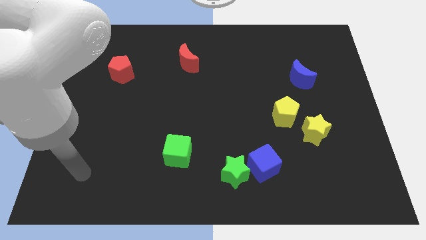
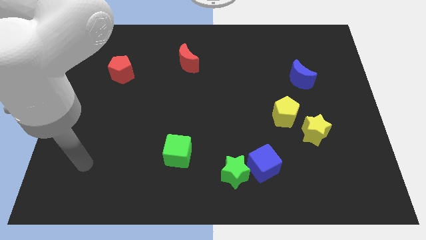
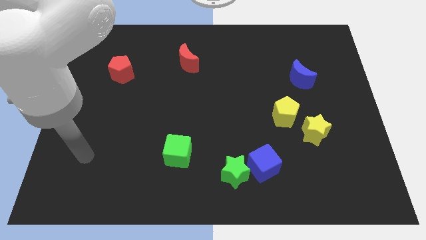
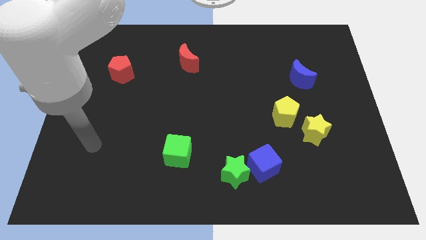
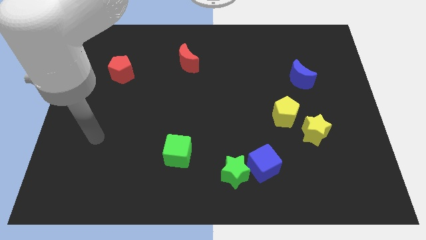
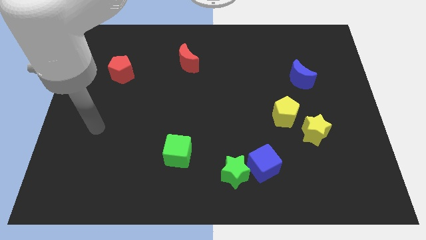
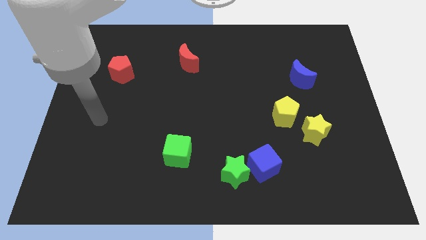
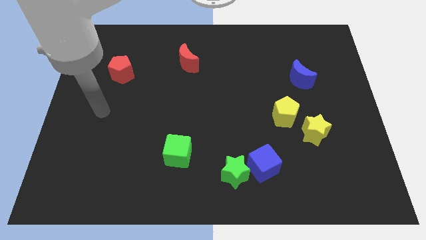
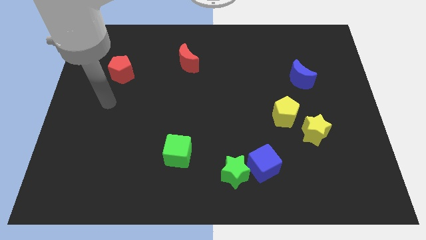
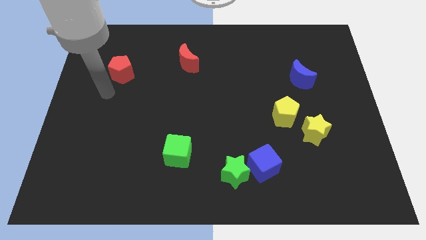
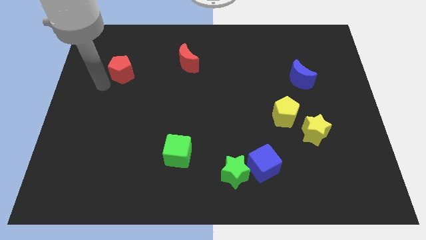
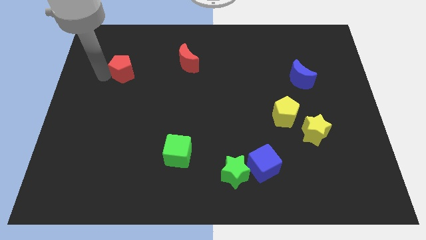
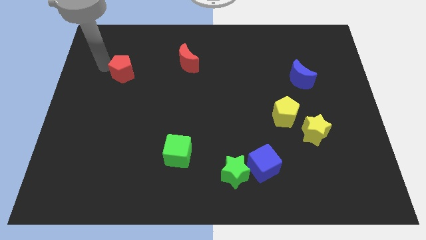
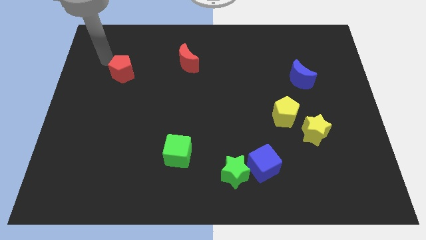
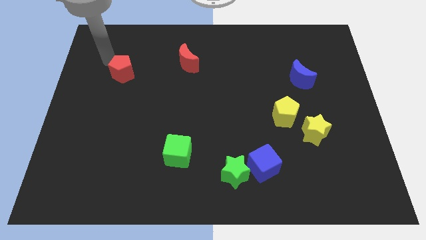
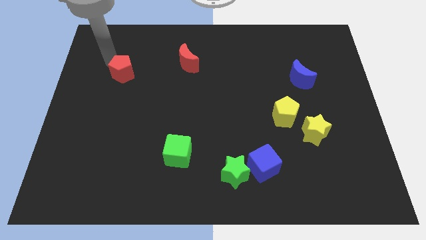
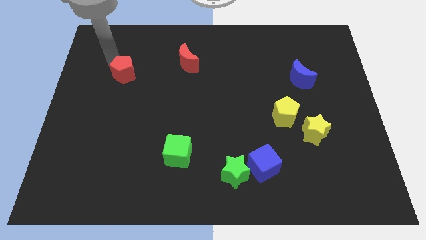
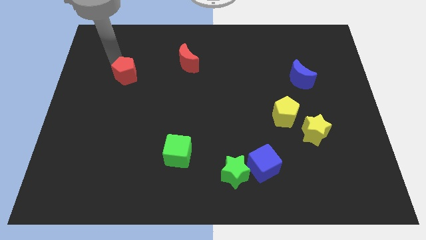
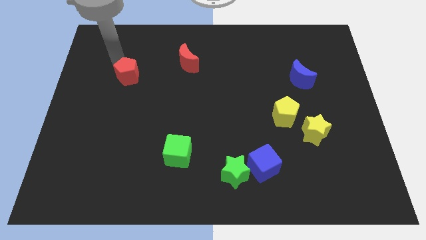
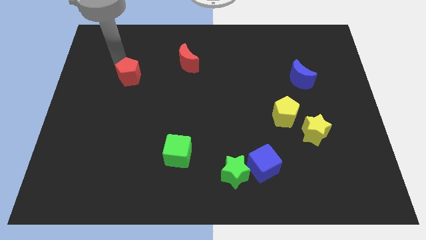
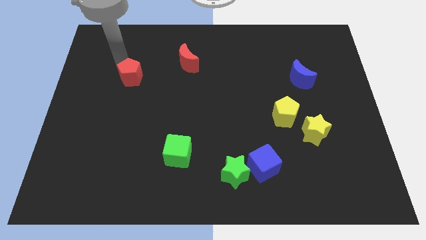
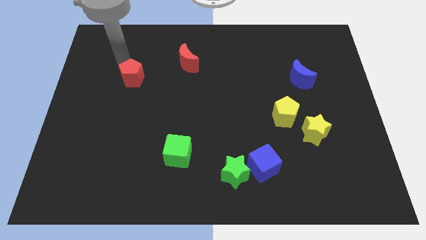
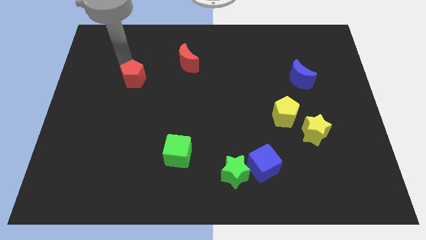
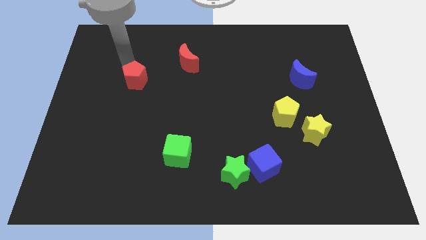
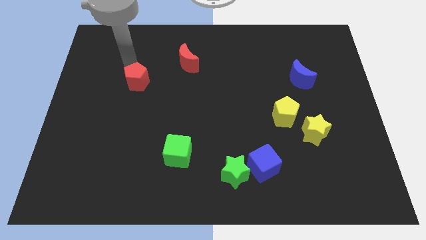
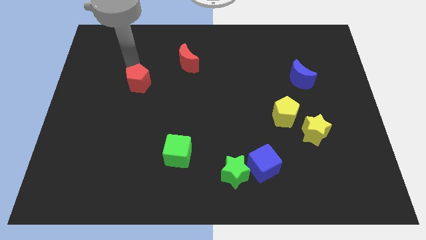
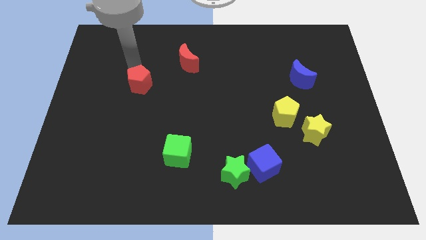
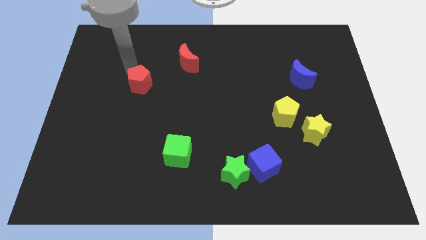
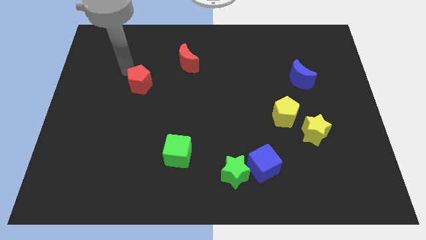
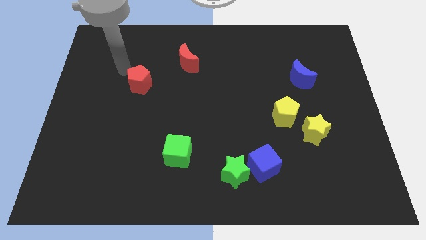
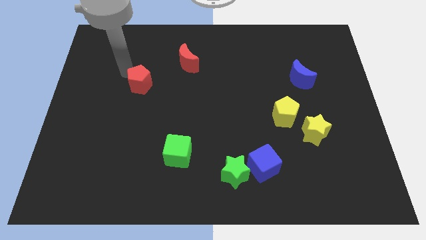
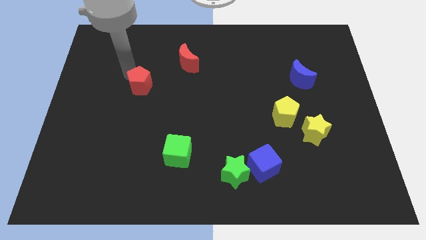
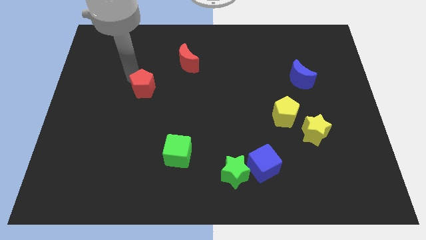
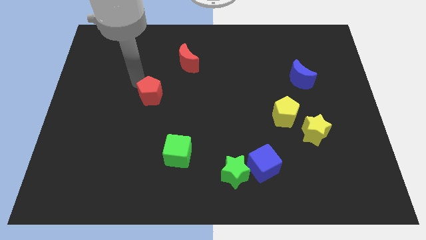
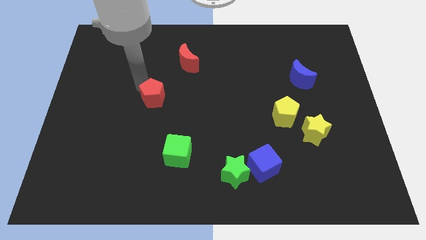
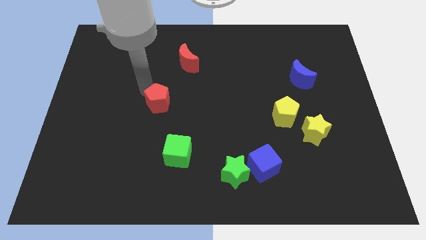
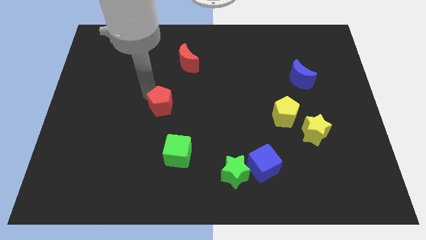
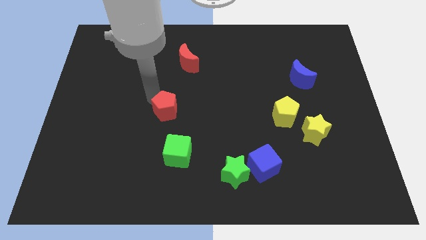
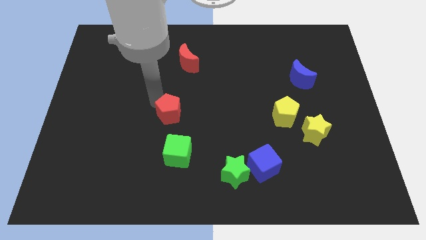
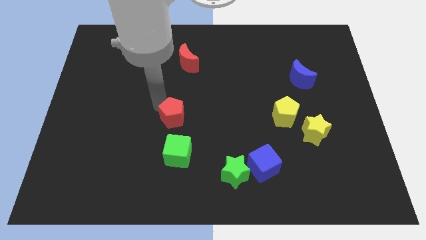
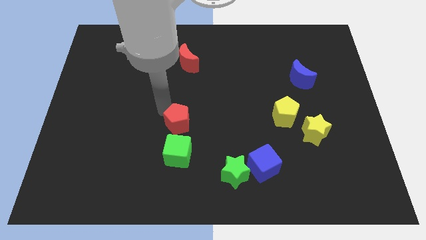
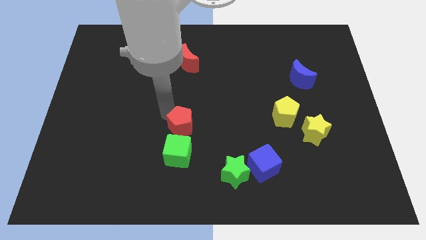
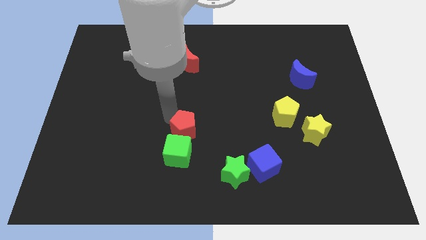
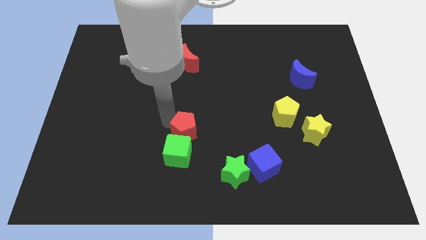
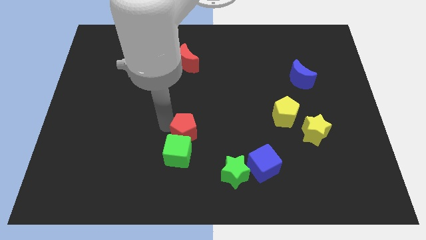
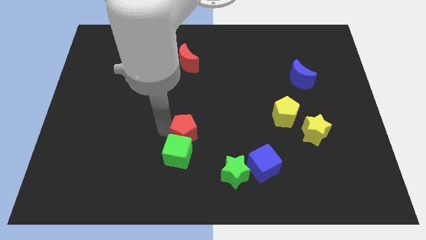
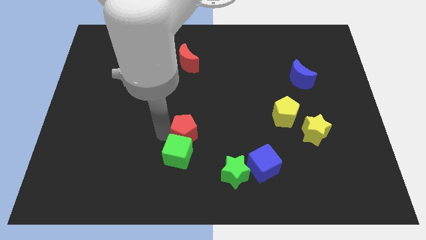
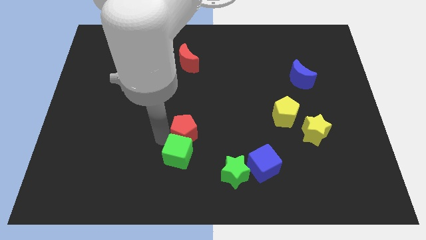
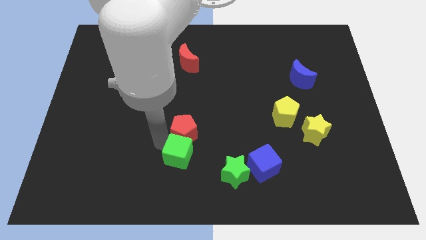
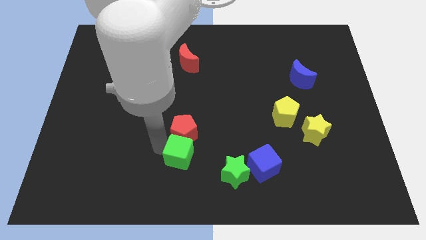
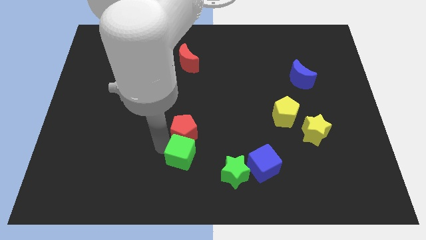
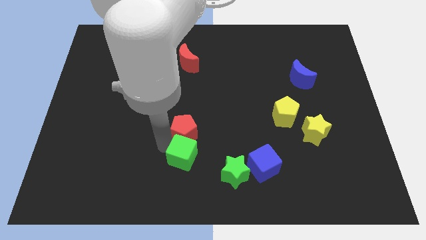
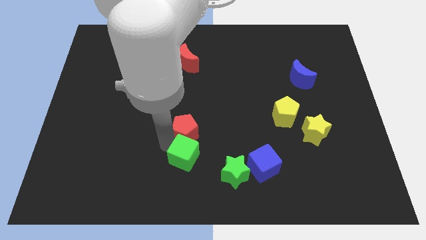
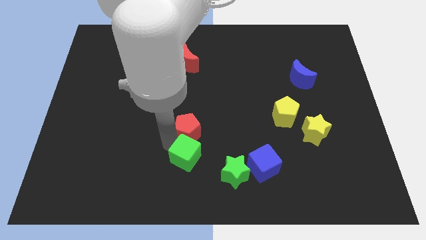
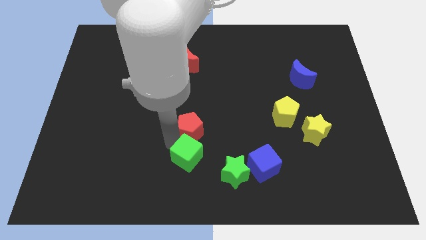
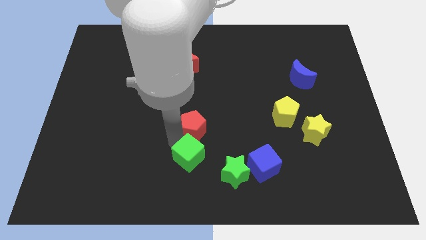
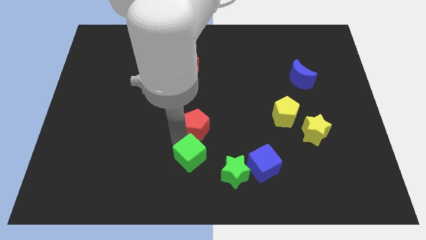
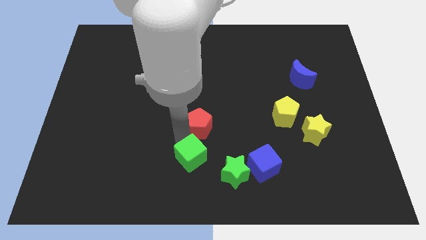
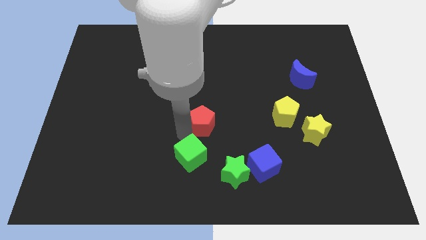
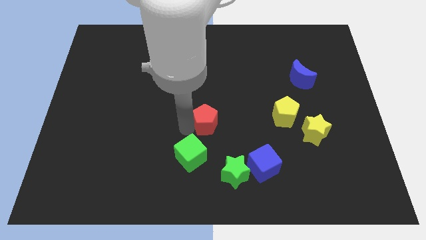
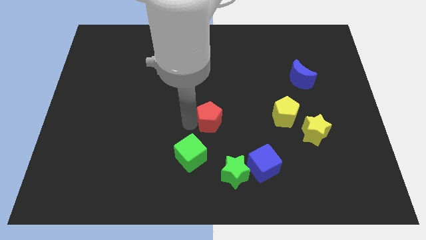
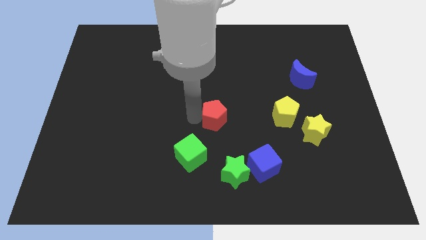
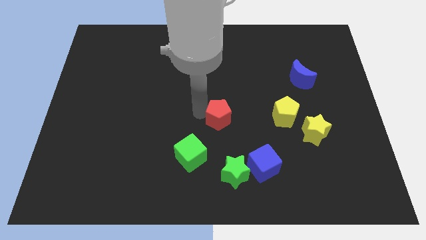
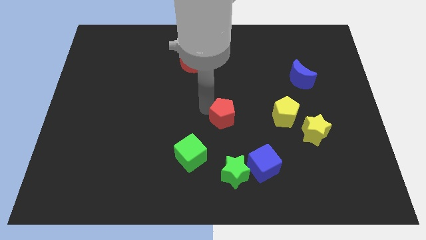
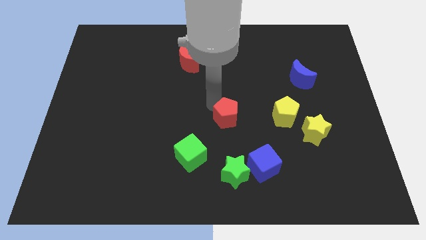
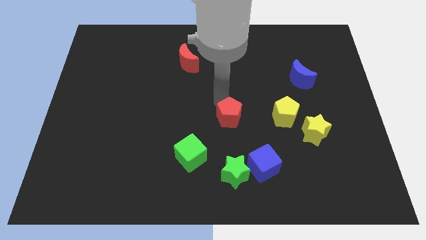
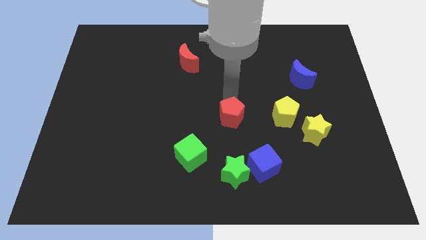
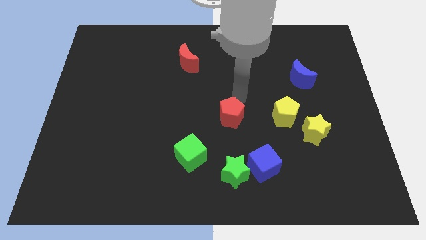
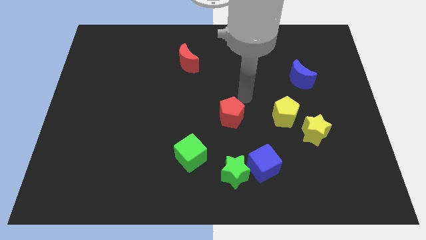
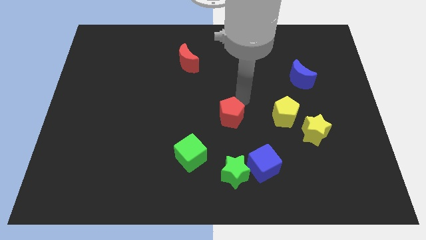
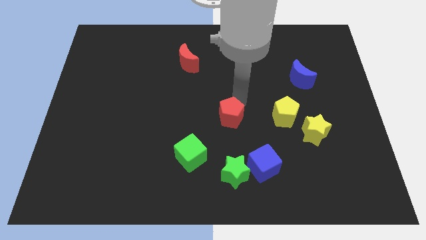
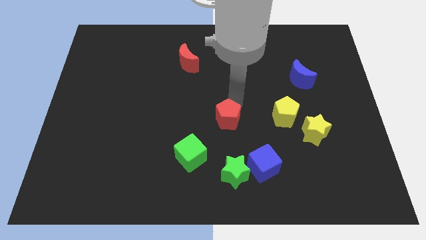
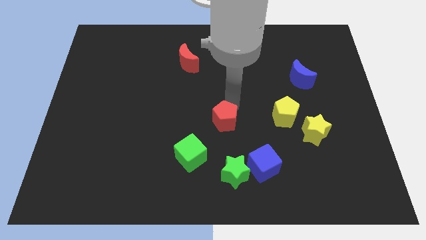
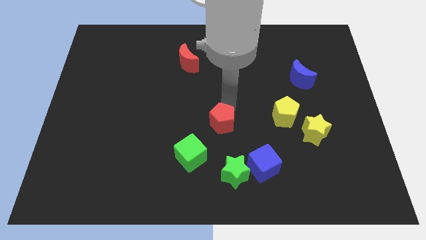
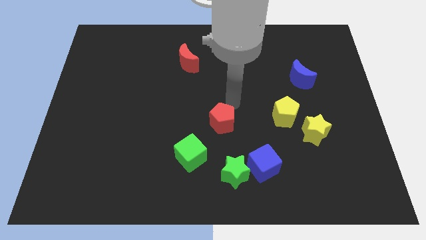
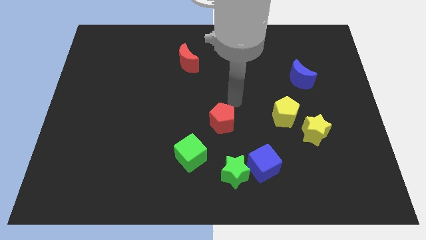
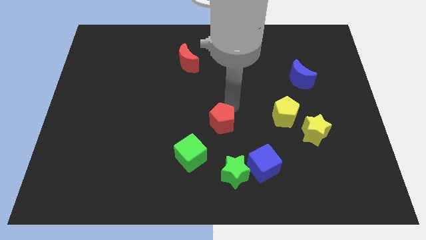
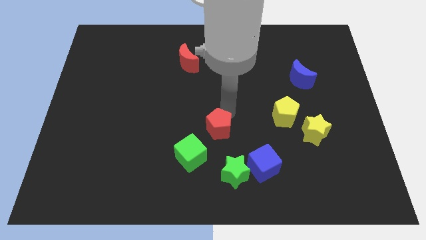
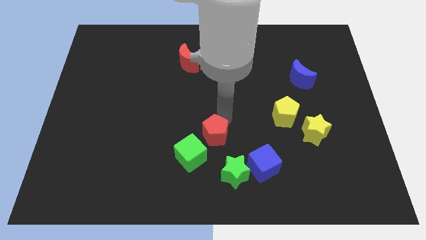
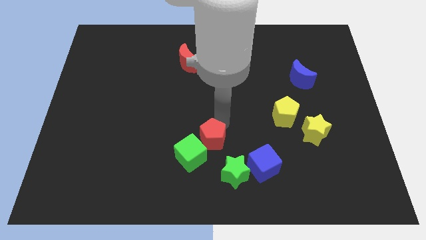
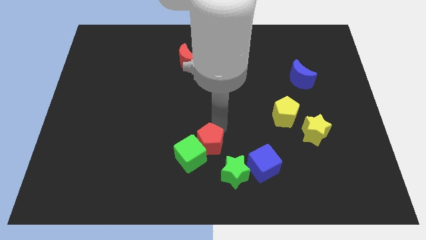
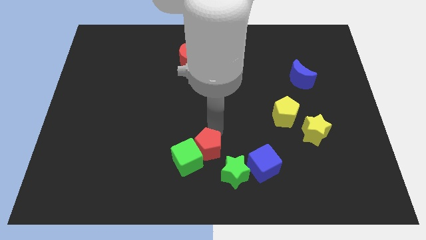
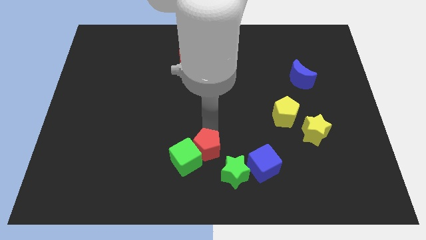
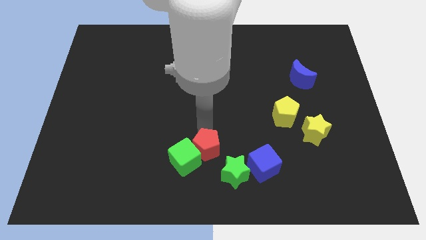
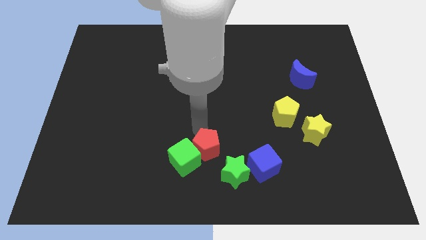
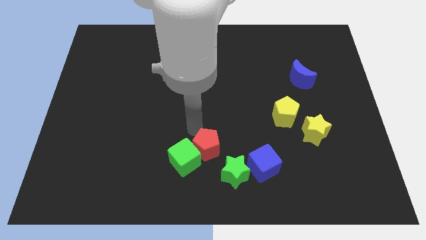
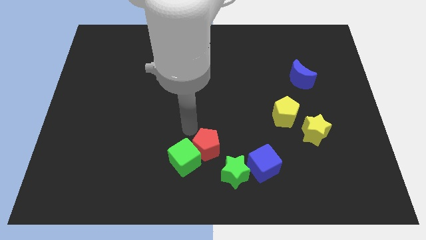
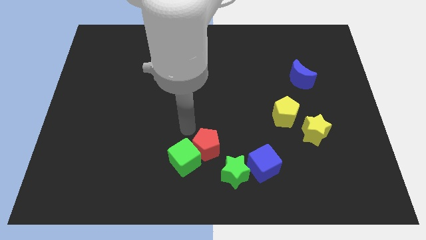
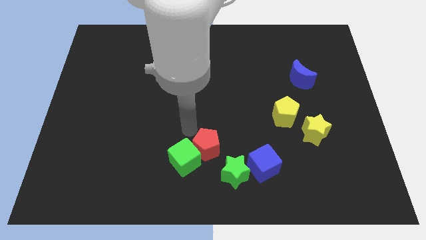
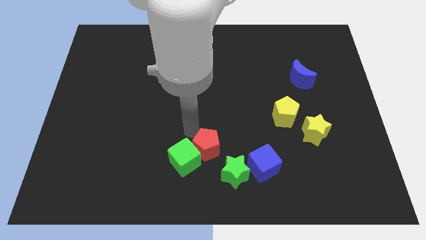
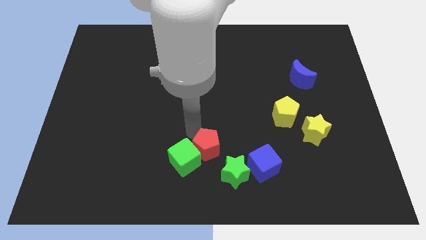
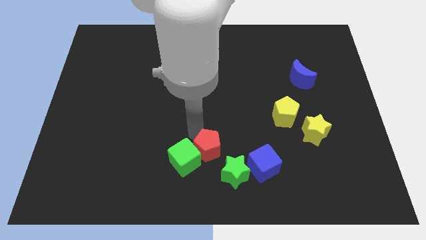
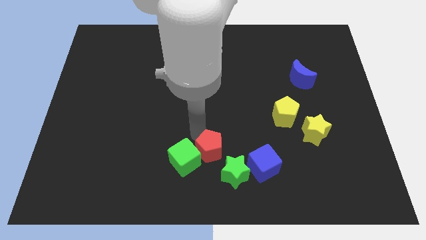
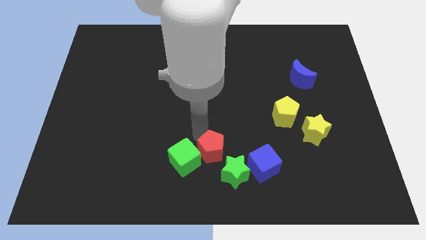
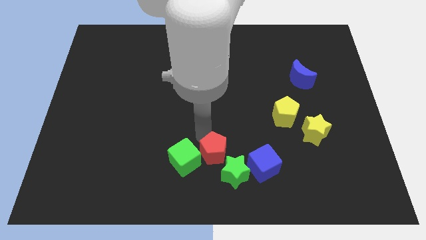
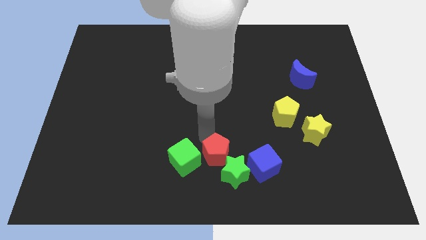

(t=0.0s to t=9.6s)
push the red pentagon towards the green star
